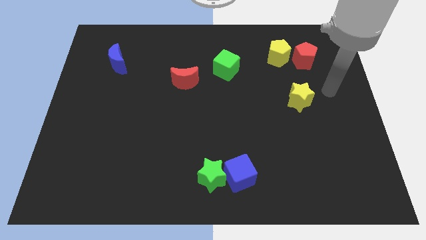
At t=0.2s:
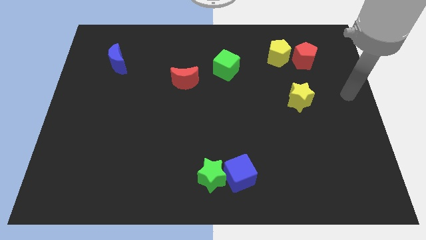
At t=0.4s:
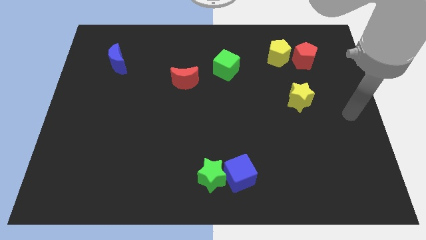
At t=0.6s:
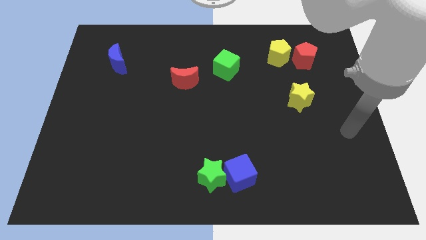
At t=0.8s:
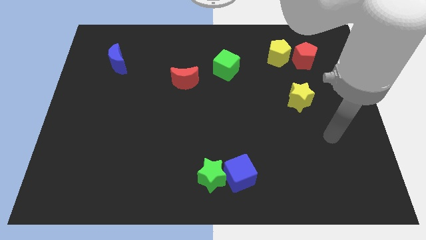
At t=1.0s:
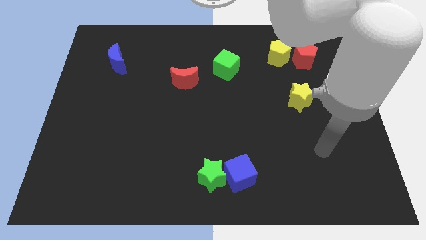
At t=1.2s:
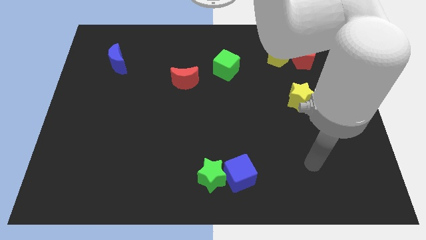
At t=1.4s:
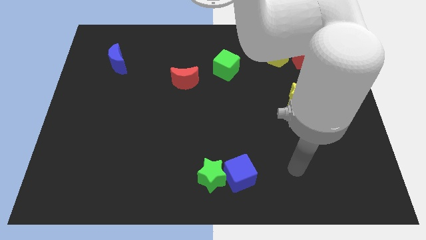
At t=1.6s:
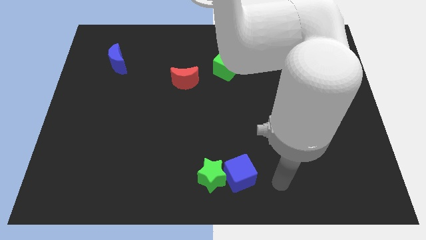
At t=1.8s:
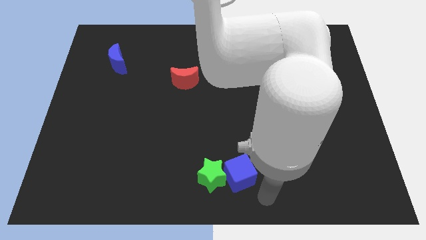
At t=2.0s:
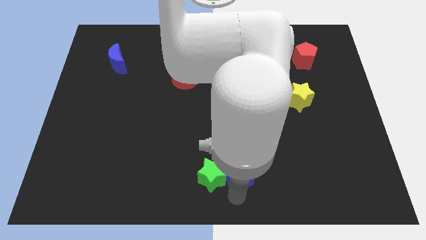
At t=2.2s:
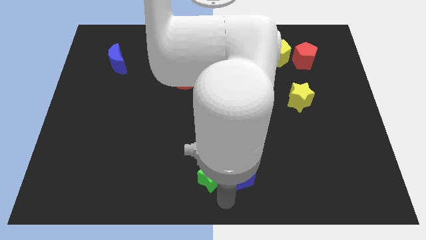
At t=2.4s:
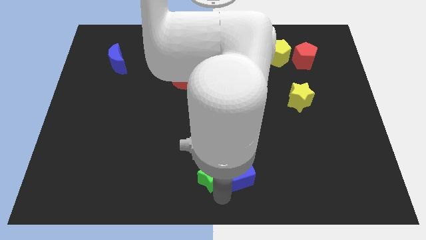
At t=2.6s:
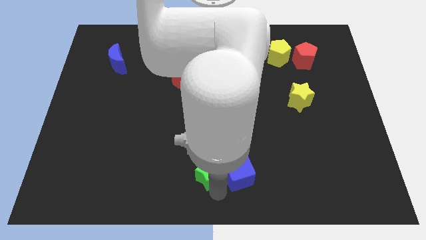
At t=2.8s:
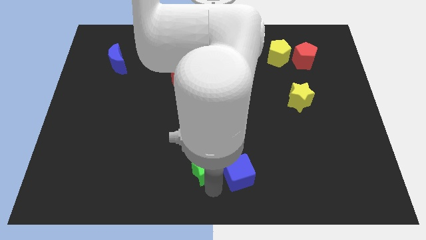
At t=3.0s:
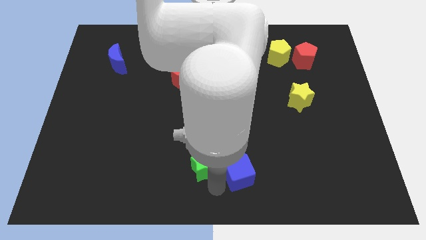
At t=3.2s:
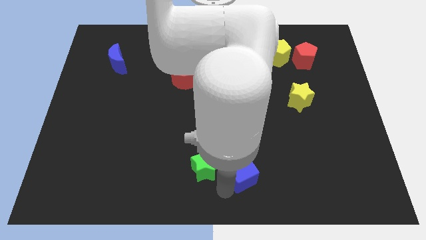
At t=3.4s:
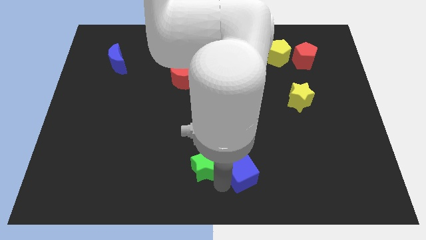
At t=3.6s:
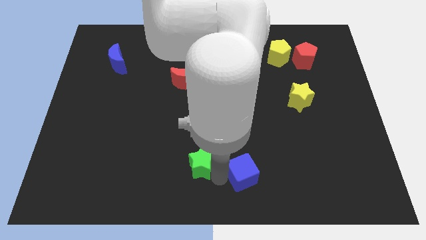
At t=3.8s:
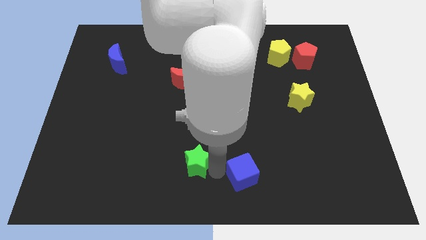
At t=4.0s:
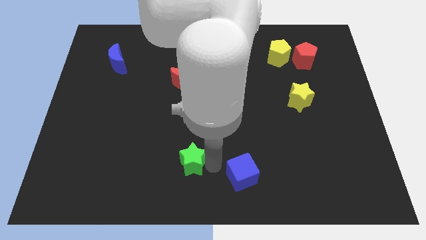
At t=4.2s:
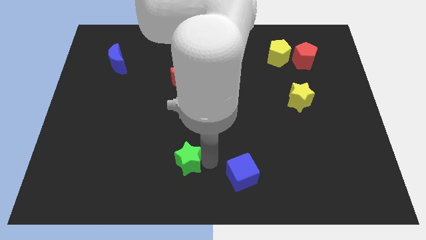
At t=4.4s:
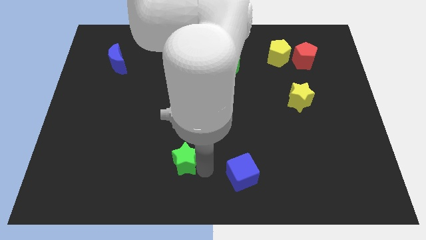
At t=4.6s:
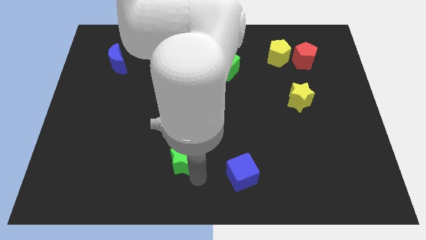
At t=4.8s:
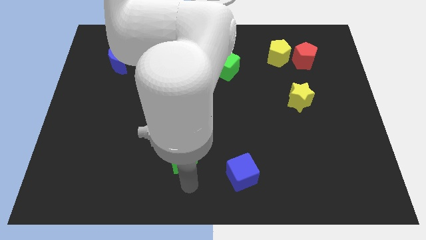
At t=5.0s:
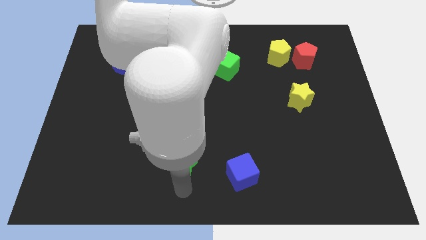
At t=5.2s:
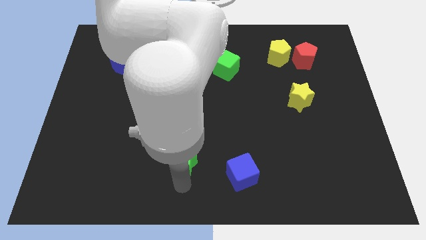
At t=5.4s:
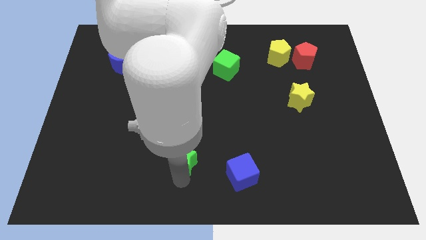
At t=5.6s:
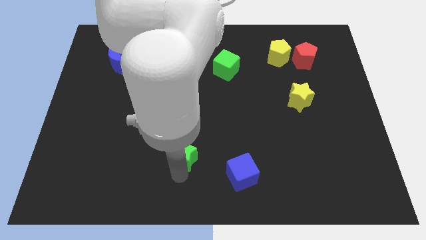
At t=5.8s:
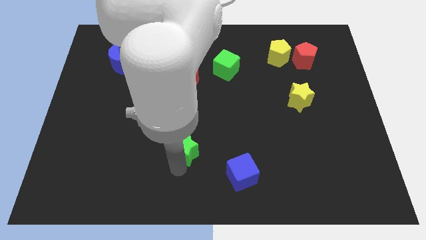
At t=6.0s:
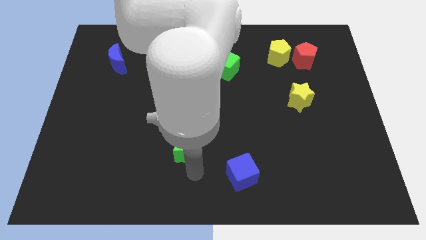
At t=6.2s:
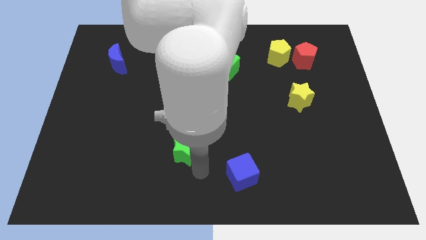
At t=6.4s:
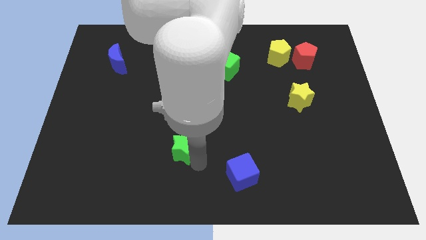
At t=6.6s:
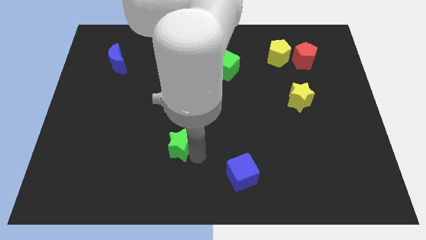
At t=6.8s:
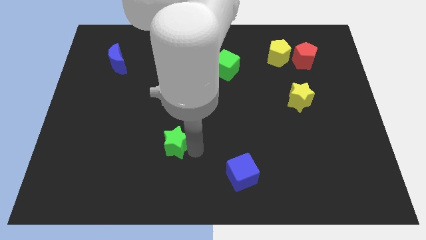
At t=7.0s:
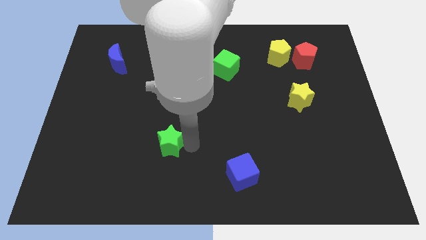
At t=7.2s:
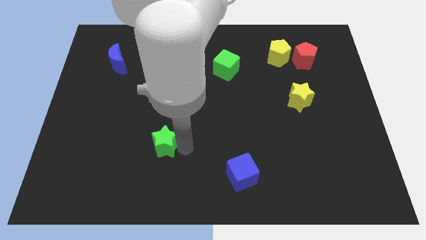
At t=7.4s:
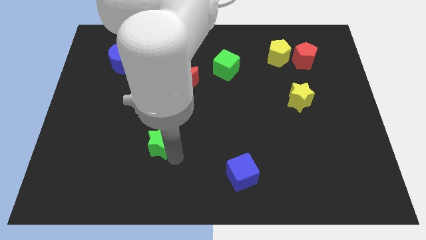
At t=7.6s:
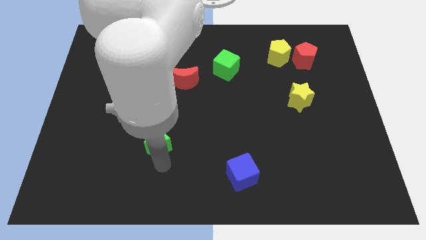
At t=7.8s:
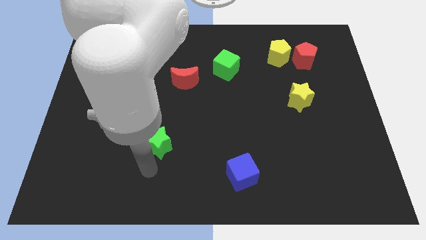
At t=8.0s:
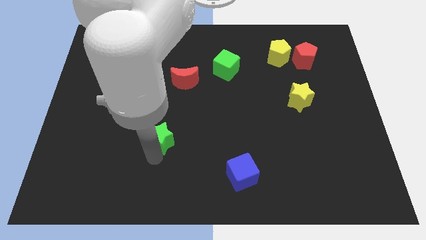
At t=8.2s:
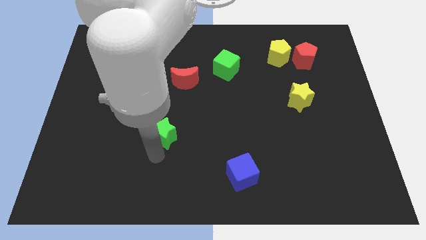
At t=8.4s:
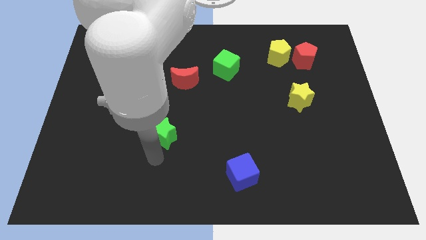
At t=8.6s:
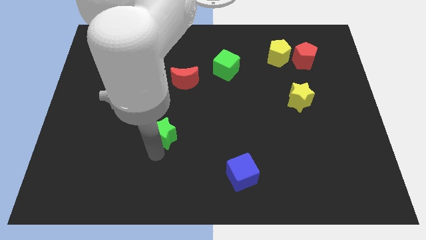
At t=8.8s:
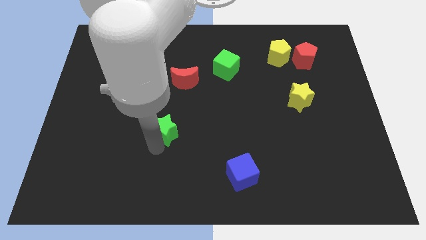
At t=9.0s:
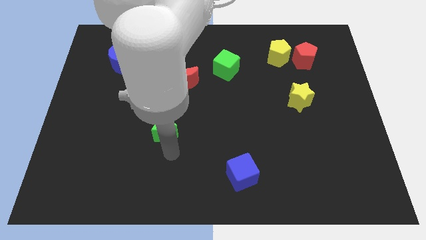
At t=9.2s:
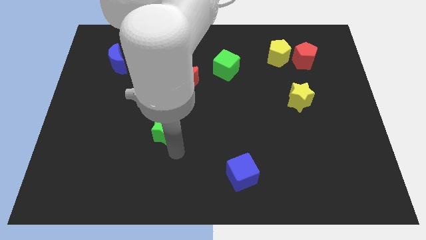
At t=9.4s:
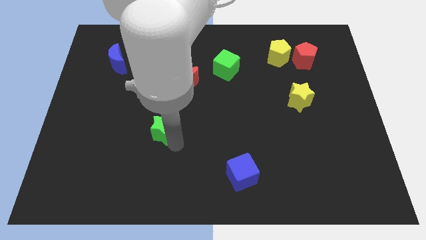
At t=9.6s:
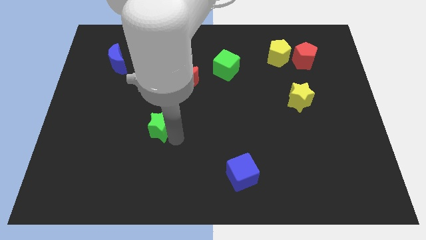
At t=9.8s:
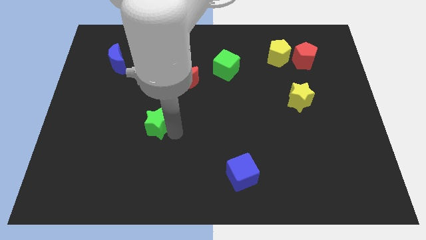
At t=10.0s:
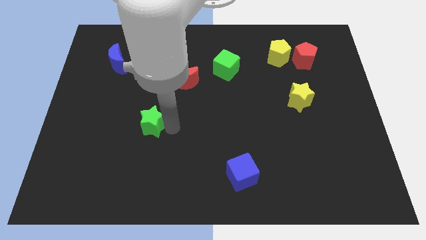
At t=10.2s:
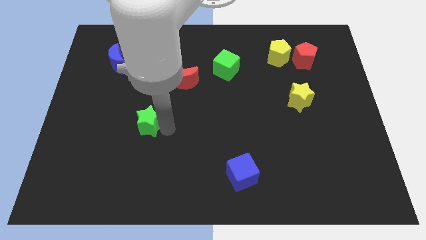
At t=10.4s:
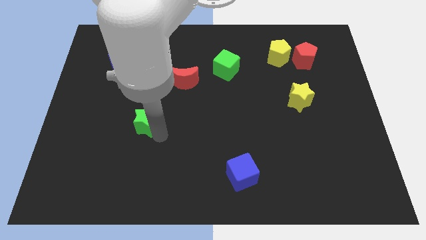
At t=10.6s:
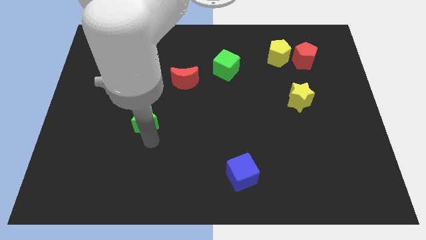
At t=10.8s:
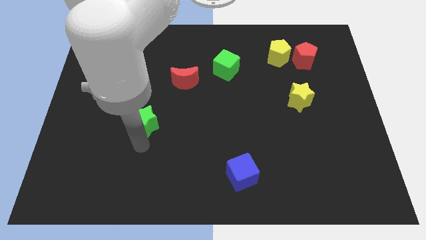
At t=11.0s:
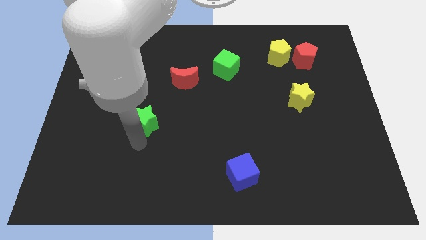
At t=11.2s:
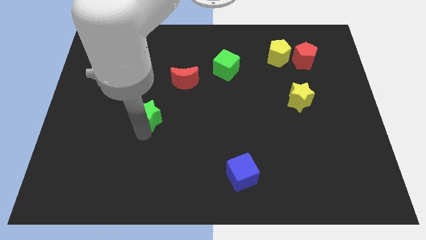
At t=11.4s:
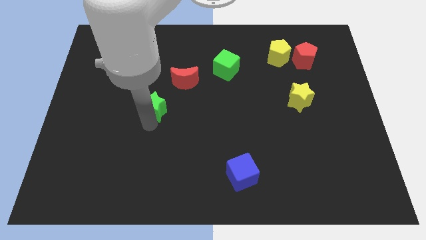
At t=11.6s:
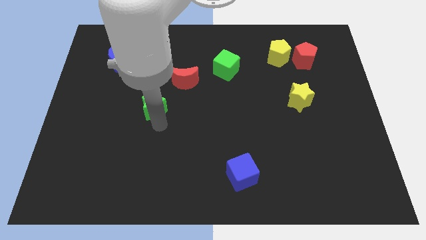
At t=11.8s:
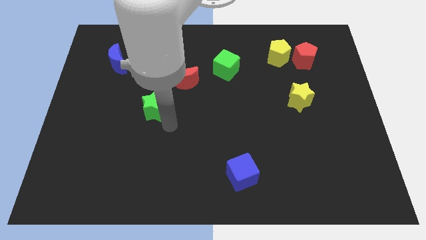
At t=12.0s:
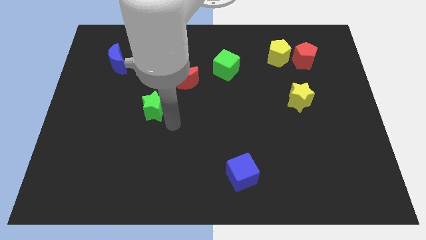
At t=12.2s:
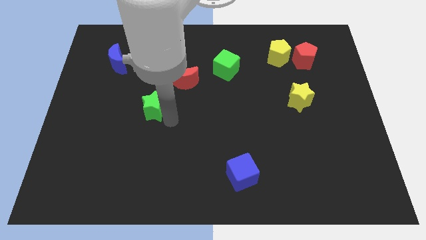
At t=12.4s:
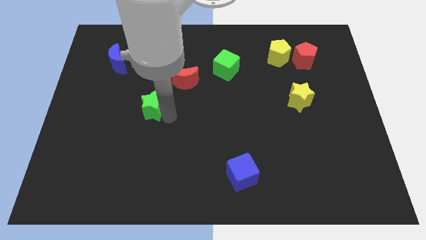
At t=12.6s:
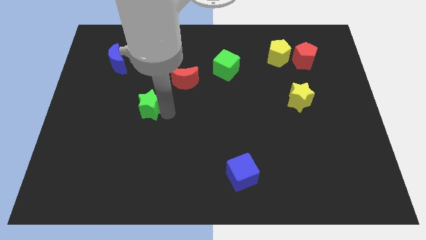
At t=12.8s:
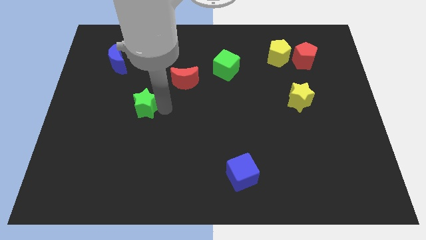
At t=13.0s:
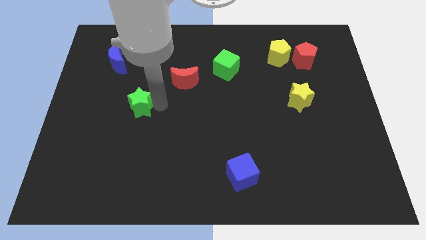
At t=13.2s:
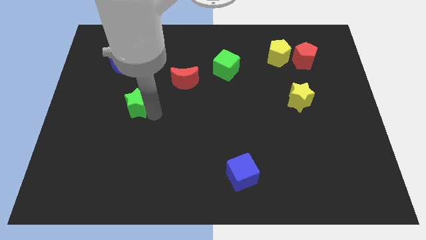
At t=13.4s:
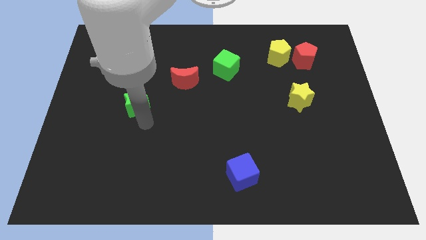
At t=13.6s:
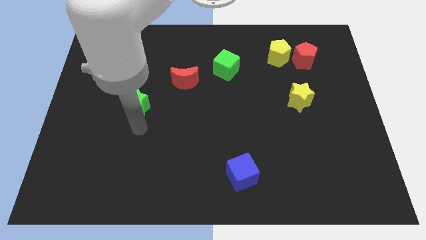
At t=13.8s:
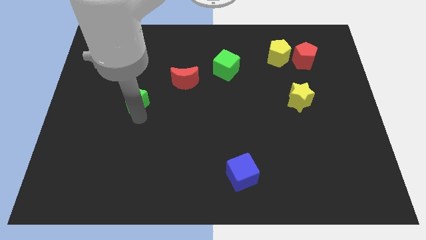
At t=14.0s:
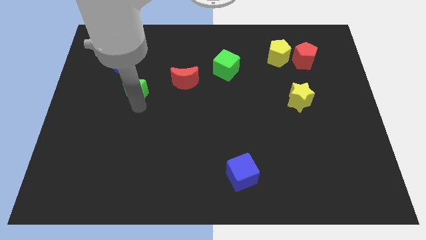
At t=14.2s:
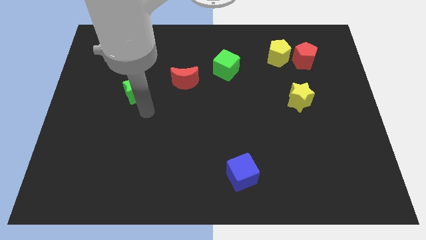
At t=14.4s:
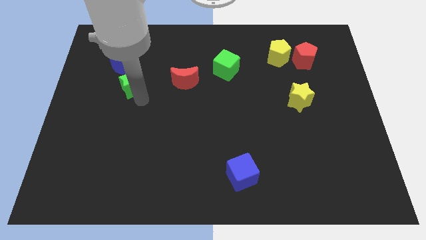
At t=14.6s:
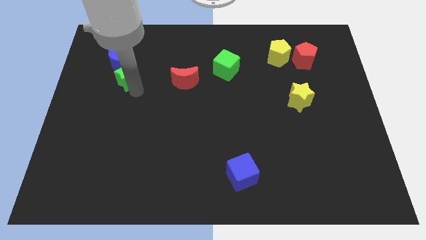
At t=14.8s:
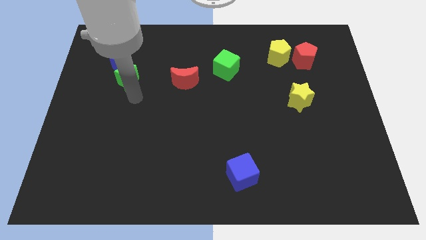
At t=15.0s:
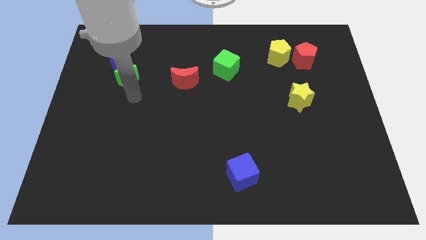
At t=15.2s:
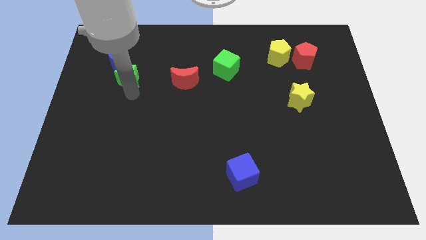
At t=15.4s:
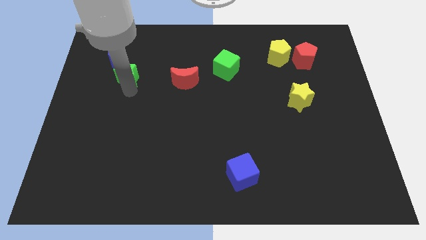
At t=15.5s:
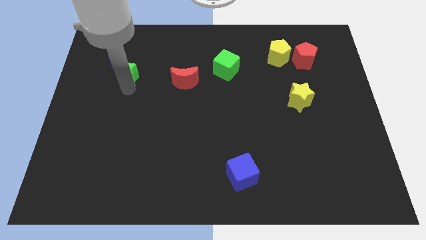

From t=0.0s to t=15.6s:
move the green star next to the blue moon
